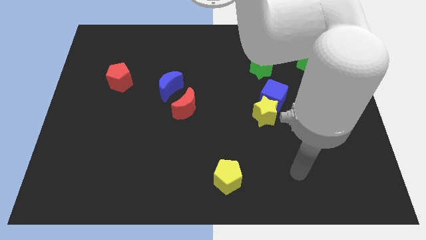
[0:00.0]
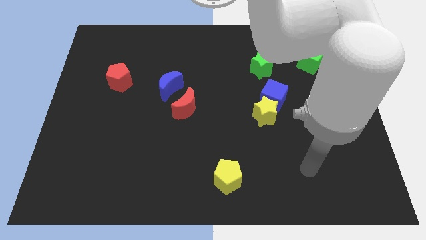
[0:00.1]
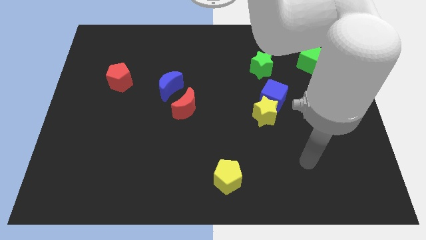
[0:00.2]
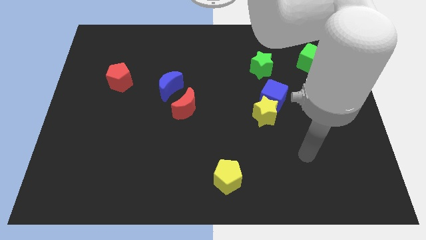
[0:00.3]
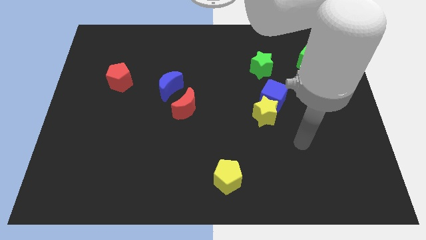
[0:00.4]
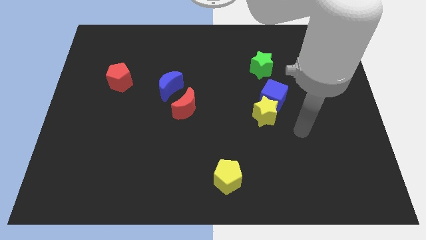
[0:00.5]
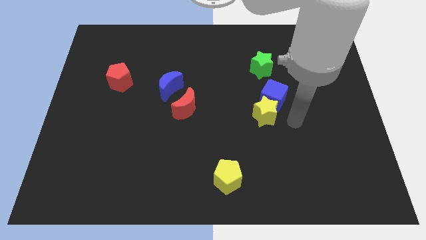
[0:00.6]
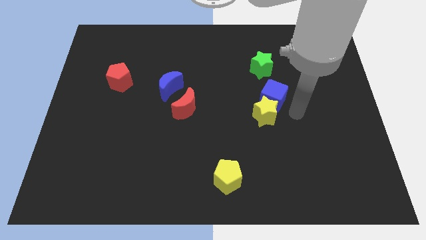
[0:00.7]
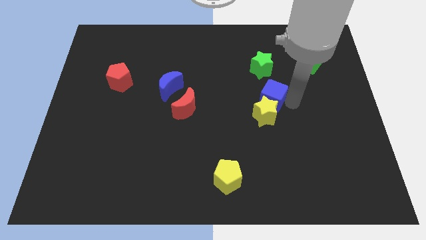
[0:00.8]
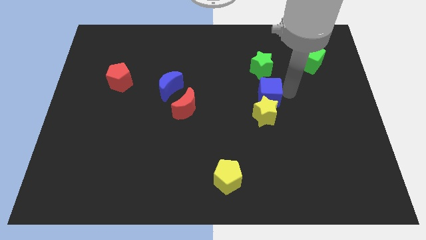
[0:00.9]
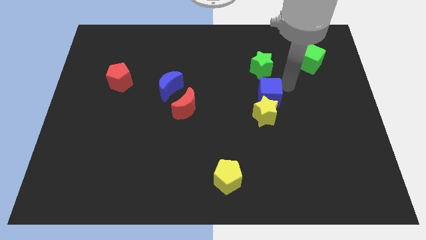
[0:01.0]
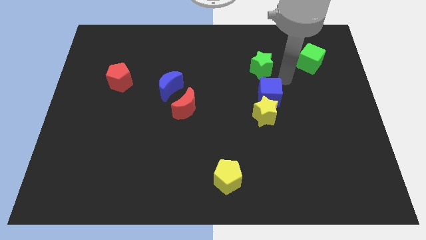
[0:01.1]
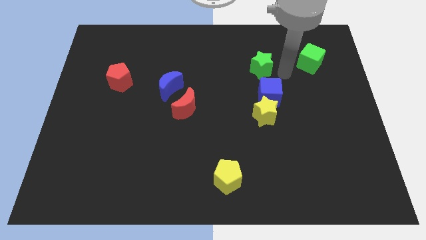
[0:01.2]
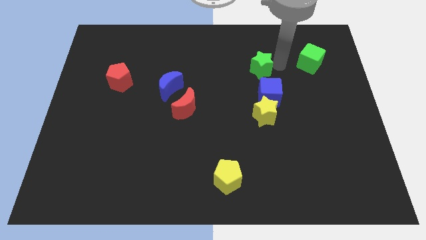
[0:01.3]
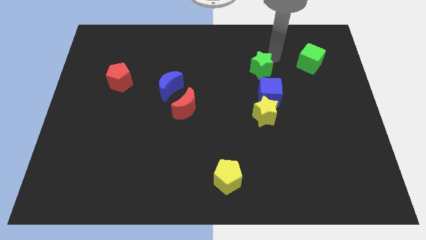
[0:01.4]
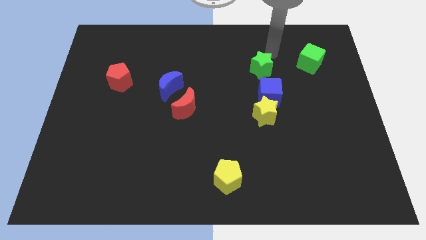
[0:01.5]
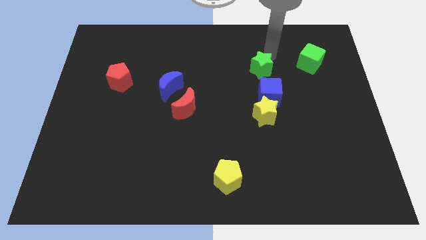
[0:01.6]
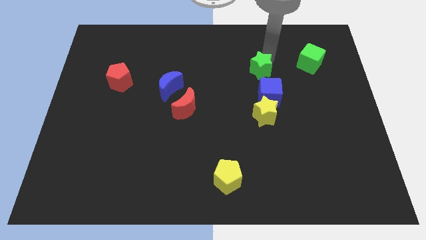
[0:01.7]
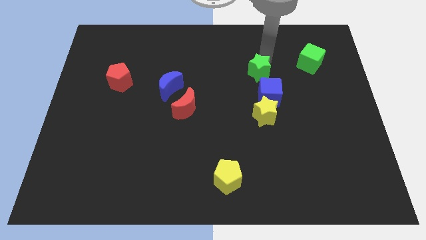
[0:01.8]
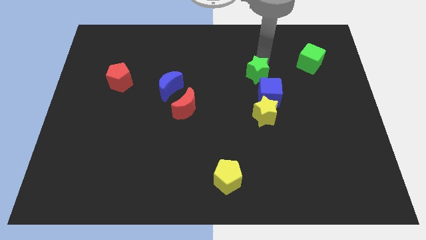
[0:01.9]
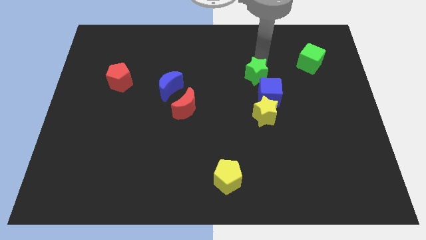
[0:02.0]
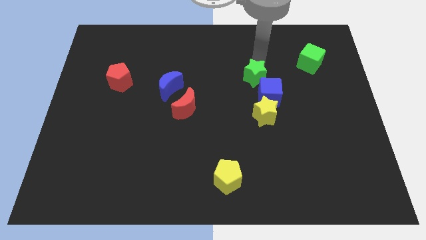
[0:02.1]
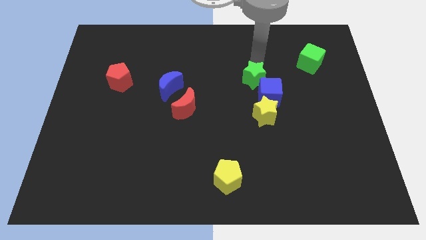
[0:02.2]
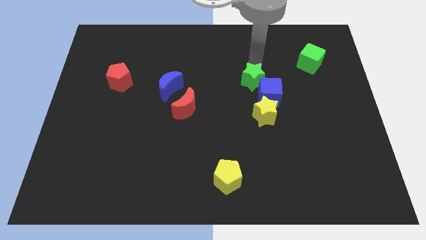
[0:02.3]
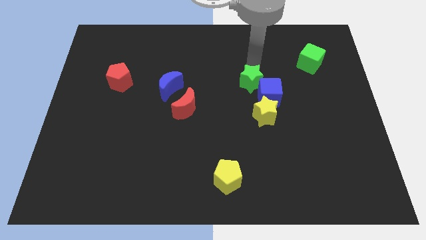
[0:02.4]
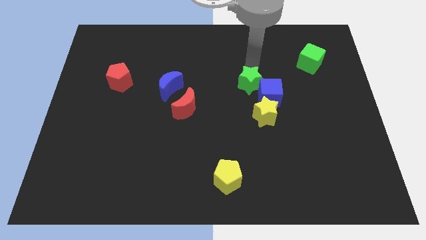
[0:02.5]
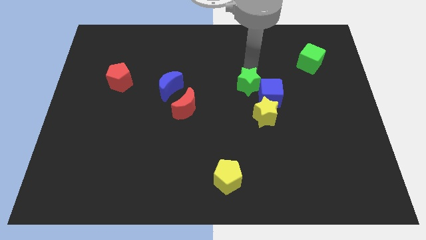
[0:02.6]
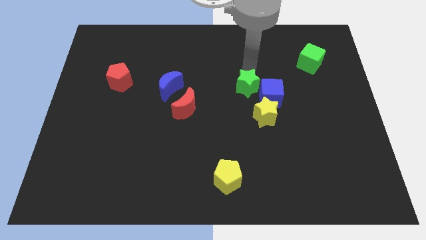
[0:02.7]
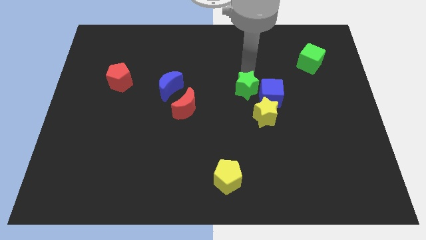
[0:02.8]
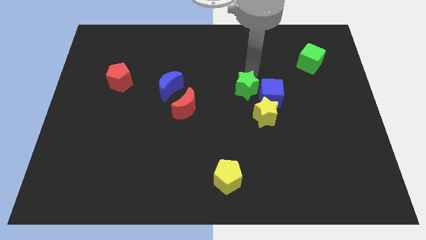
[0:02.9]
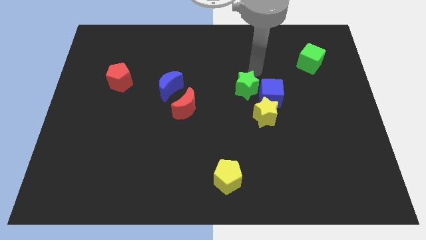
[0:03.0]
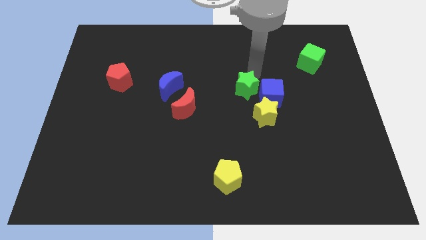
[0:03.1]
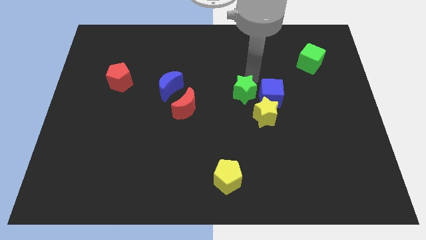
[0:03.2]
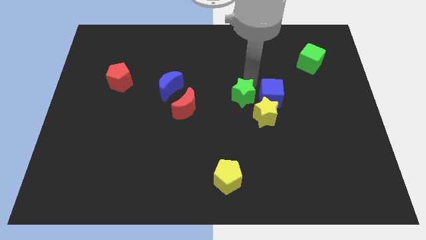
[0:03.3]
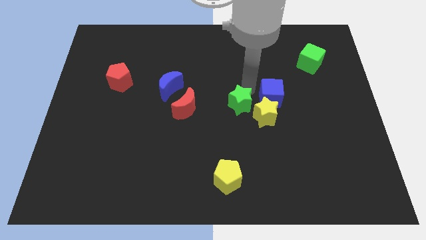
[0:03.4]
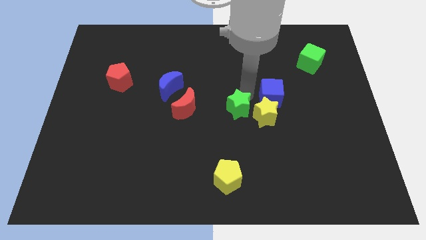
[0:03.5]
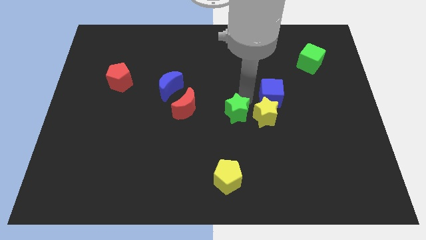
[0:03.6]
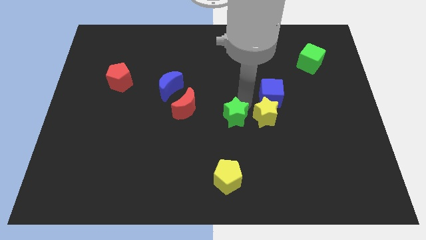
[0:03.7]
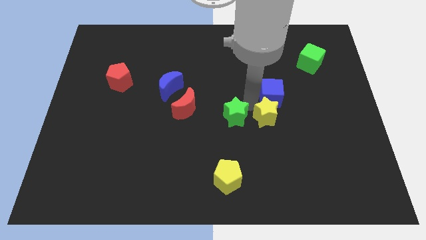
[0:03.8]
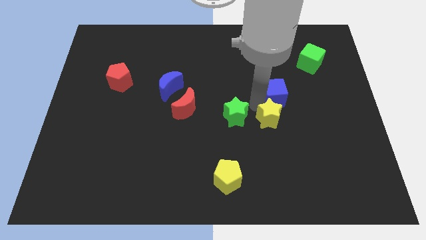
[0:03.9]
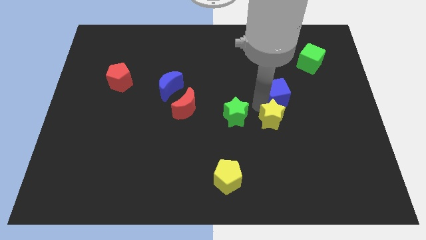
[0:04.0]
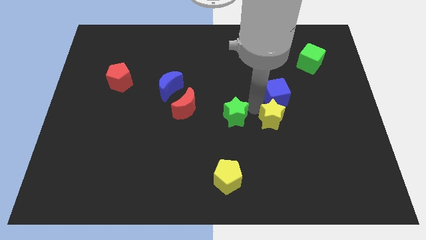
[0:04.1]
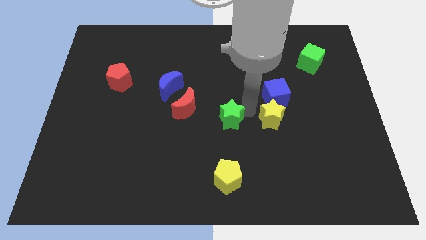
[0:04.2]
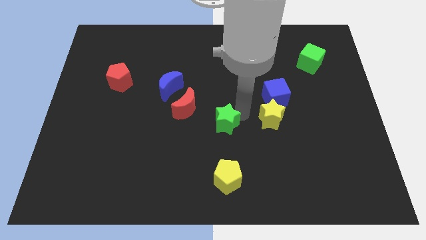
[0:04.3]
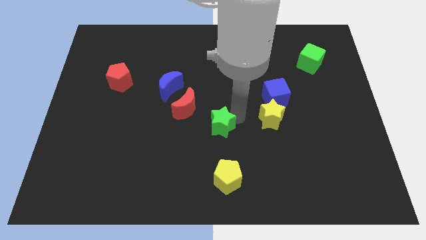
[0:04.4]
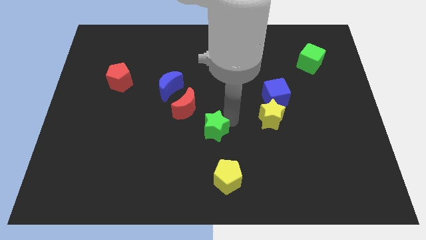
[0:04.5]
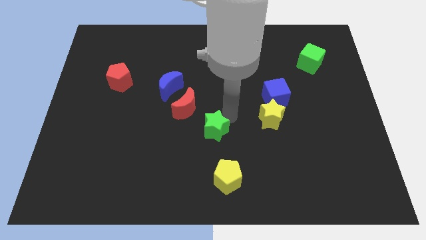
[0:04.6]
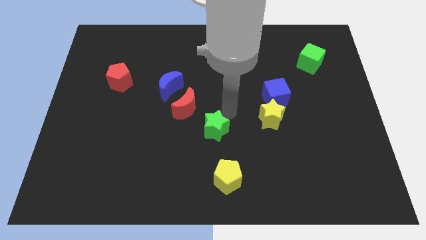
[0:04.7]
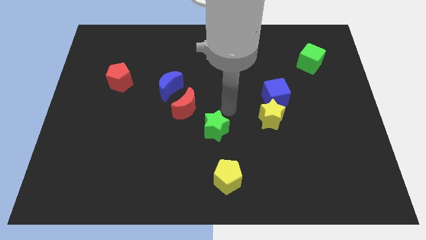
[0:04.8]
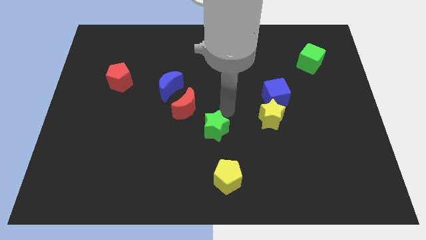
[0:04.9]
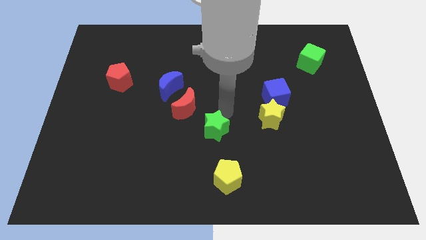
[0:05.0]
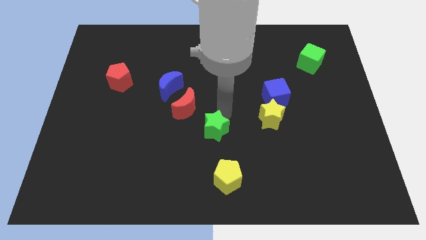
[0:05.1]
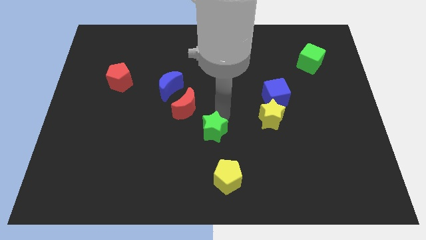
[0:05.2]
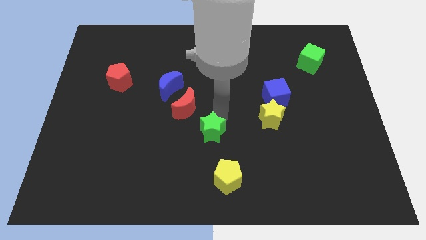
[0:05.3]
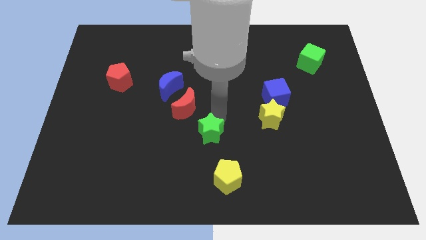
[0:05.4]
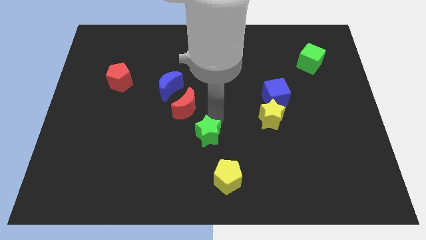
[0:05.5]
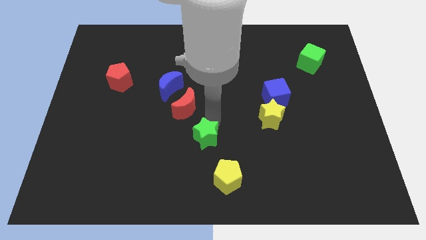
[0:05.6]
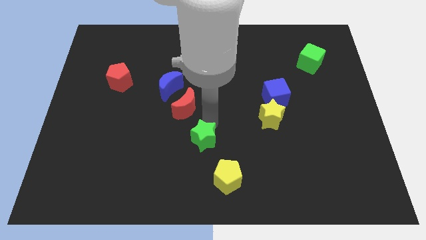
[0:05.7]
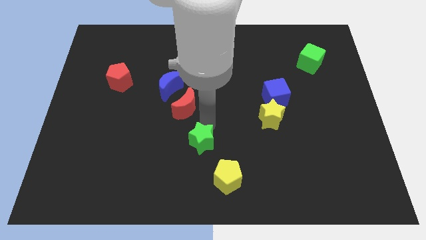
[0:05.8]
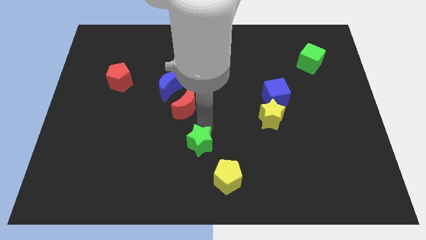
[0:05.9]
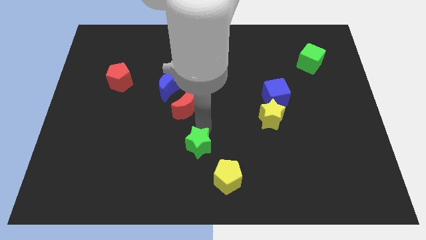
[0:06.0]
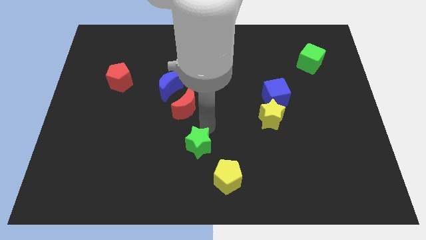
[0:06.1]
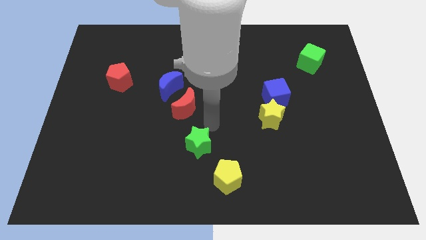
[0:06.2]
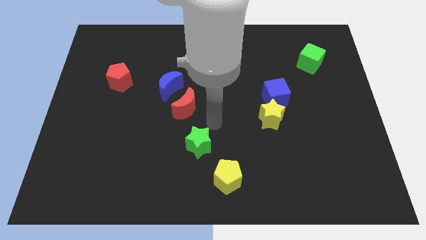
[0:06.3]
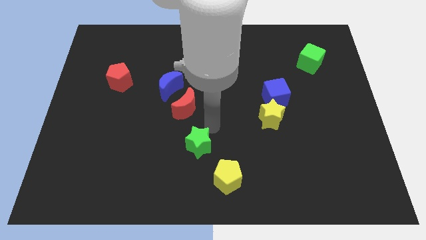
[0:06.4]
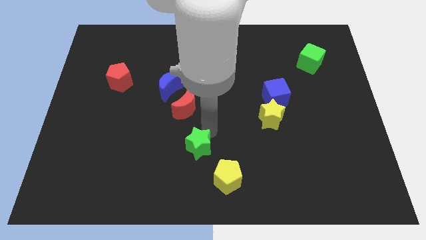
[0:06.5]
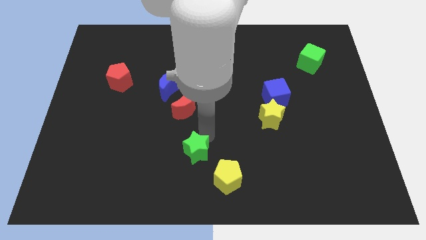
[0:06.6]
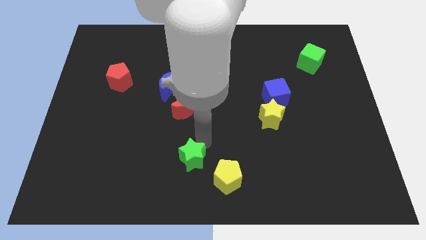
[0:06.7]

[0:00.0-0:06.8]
push the green star left of the yellow pentagon
